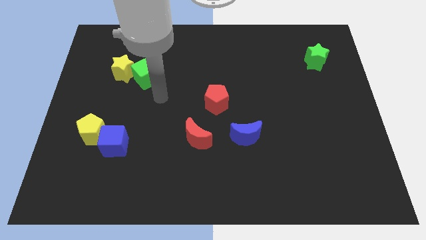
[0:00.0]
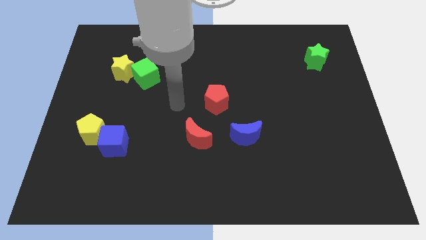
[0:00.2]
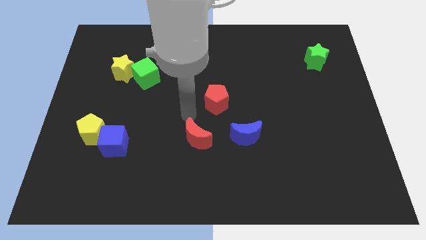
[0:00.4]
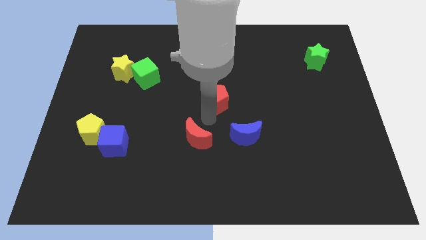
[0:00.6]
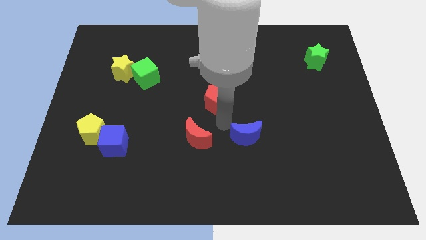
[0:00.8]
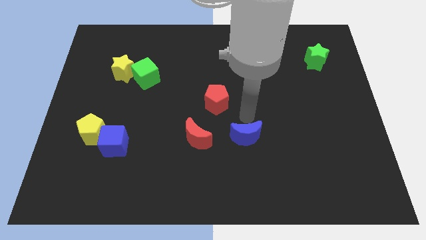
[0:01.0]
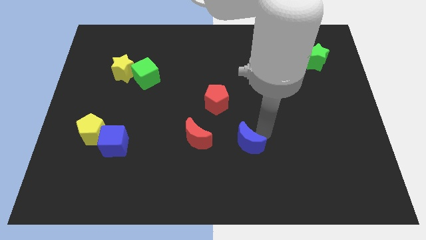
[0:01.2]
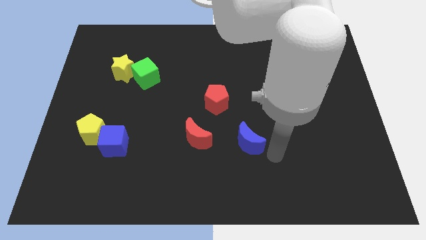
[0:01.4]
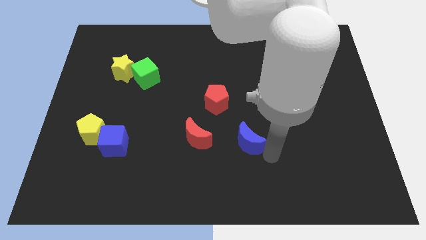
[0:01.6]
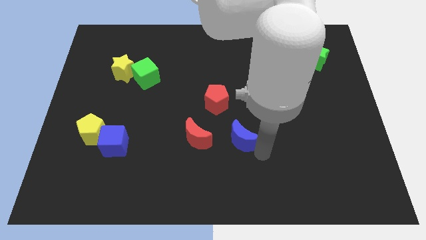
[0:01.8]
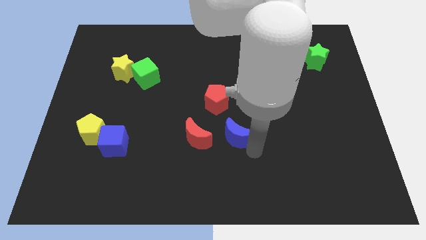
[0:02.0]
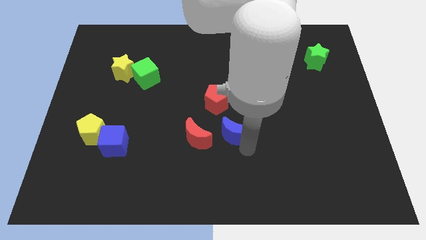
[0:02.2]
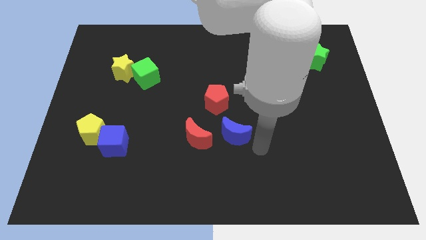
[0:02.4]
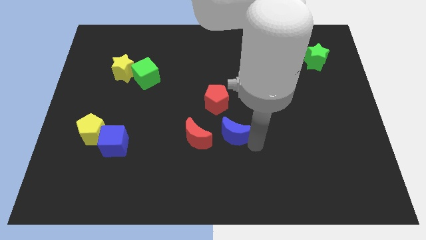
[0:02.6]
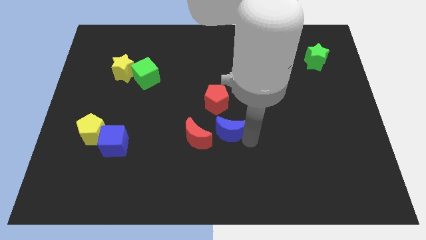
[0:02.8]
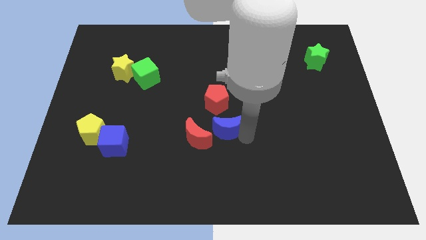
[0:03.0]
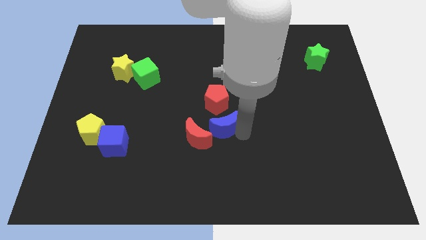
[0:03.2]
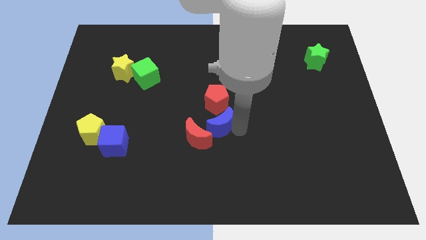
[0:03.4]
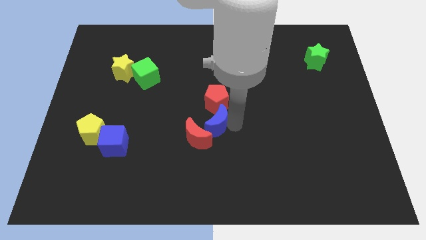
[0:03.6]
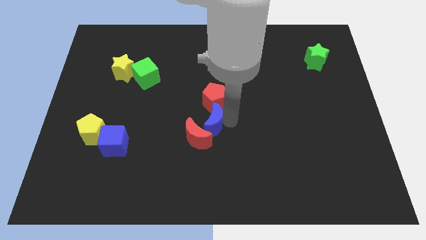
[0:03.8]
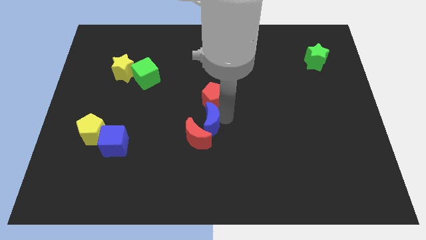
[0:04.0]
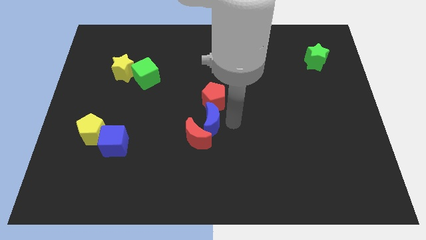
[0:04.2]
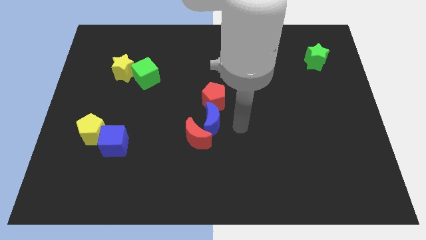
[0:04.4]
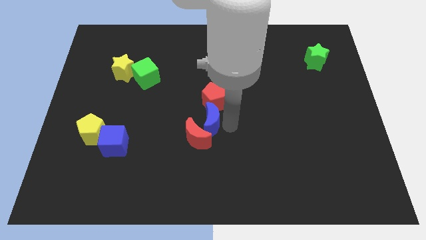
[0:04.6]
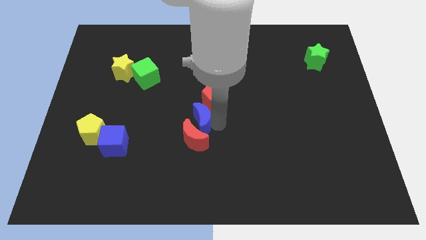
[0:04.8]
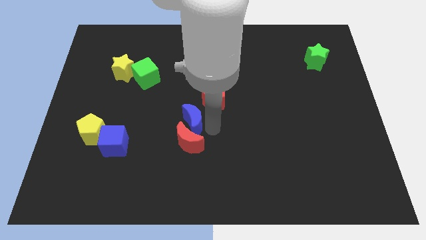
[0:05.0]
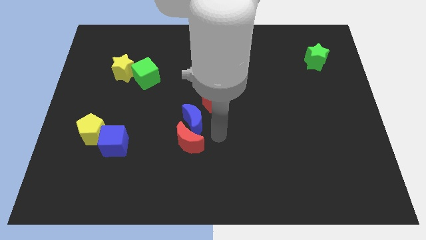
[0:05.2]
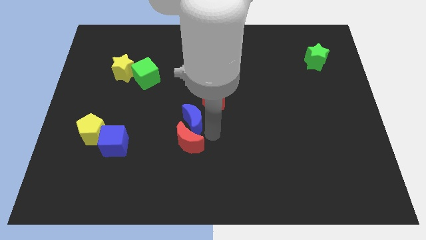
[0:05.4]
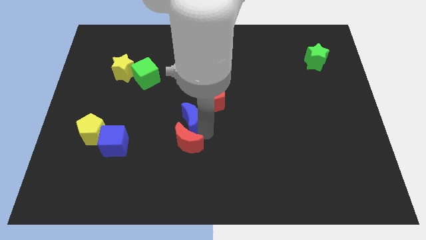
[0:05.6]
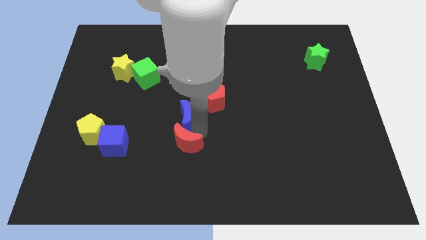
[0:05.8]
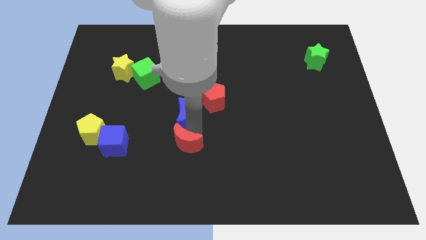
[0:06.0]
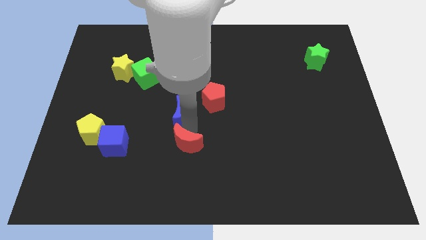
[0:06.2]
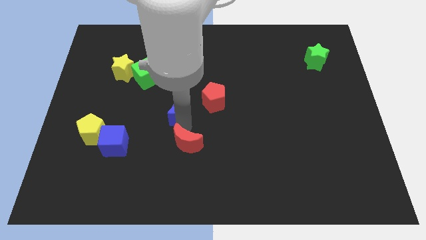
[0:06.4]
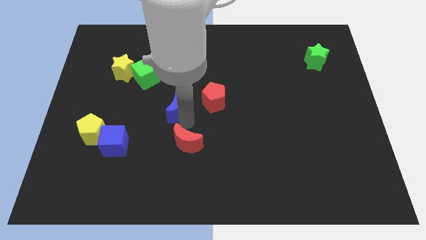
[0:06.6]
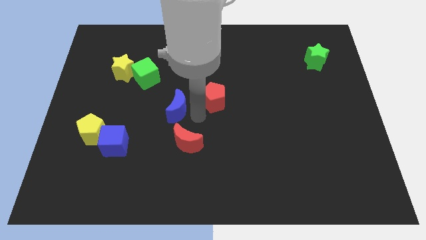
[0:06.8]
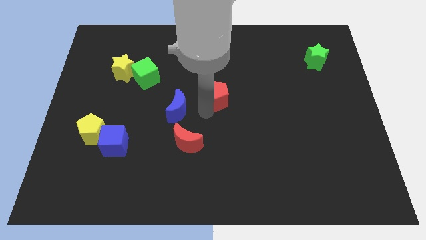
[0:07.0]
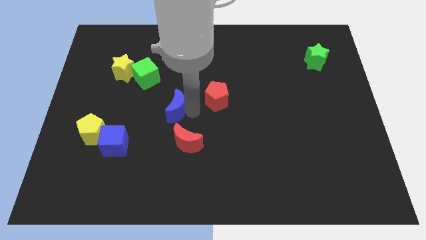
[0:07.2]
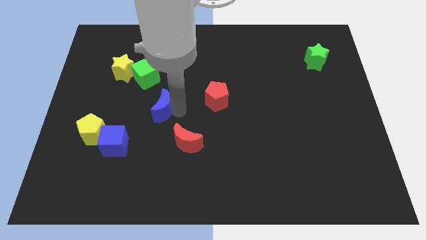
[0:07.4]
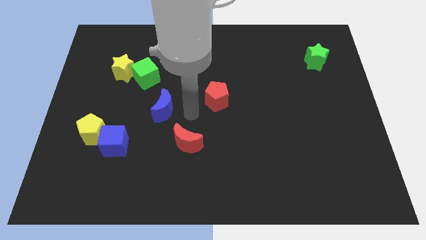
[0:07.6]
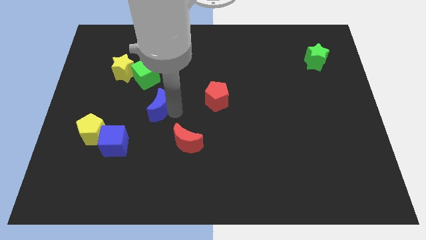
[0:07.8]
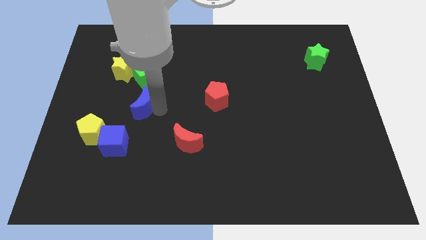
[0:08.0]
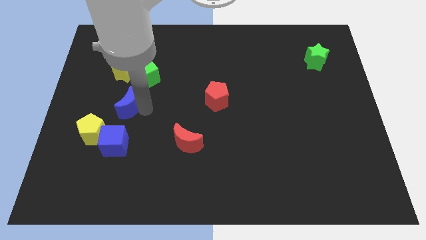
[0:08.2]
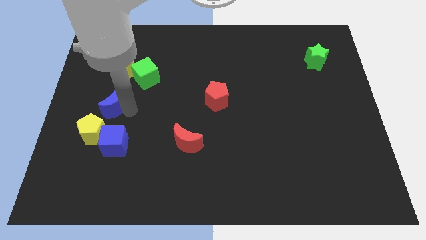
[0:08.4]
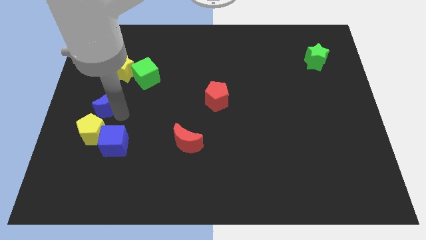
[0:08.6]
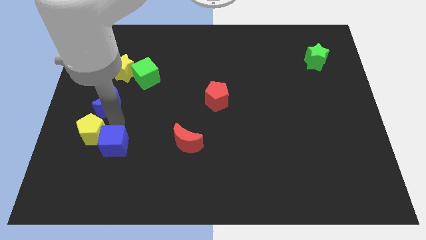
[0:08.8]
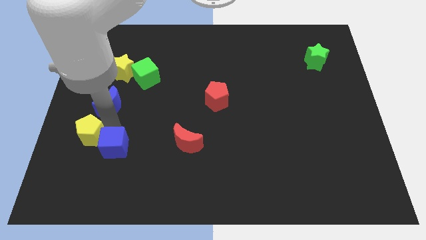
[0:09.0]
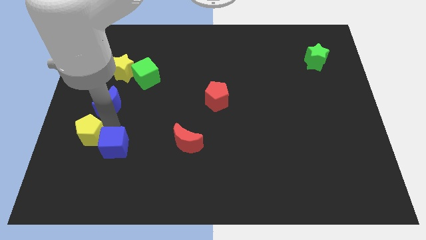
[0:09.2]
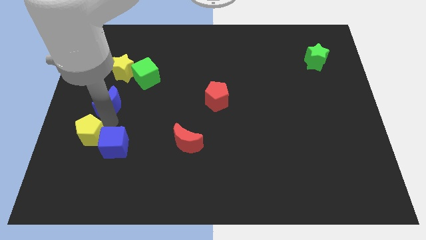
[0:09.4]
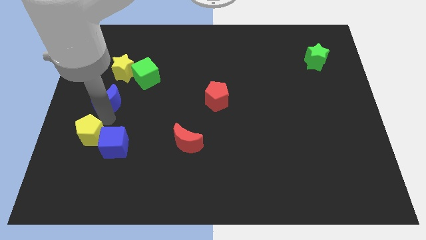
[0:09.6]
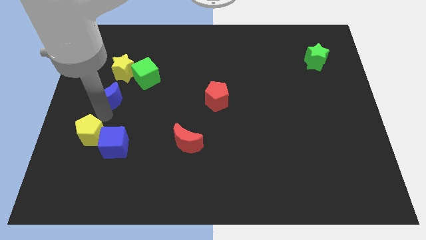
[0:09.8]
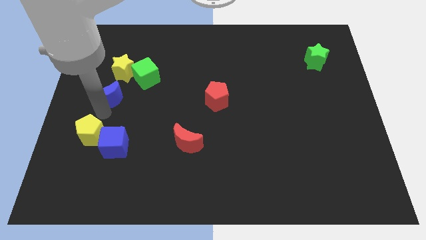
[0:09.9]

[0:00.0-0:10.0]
push the blue moon to the bottom left of the yellow star

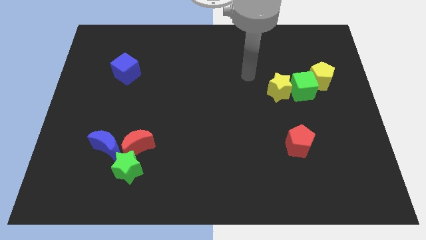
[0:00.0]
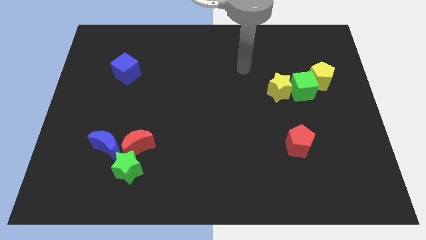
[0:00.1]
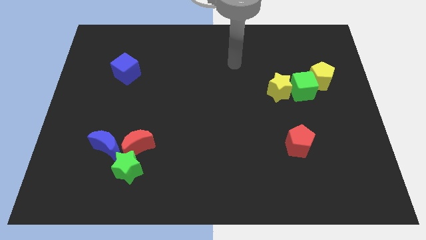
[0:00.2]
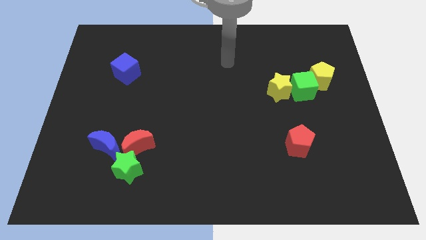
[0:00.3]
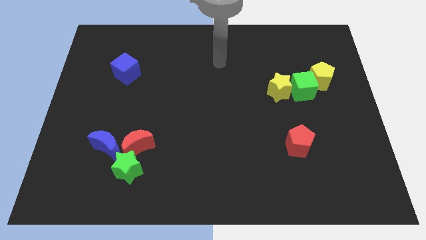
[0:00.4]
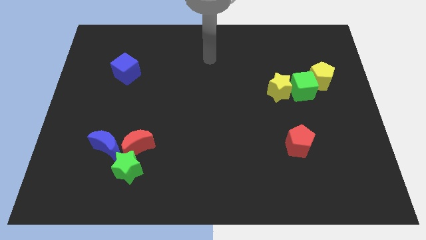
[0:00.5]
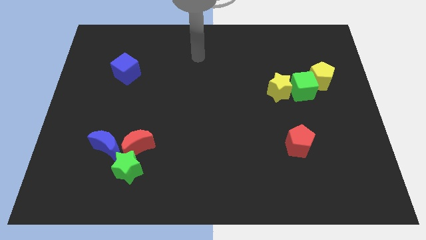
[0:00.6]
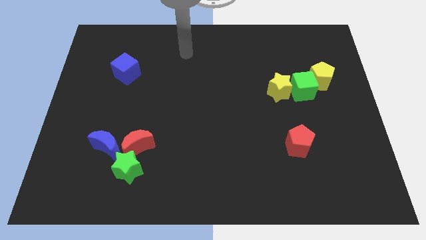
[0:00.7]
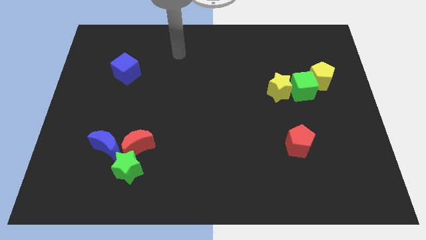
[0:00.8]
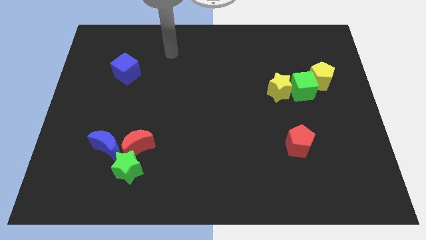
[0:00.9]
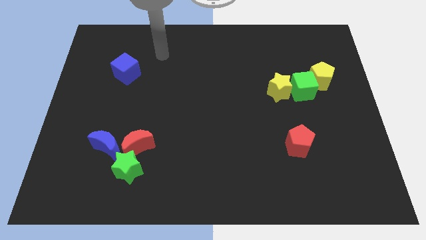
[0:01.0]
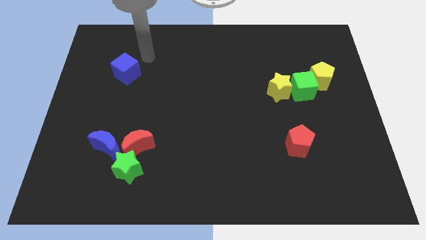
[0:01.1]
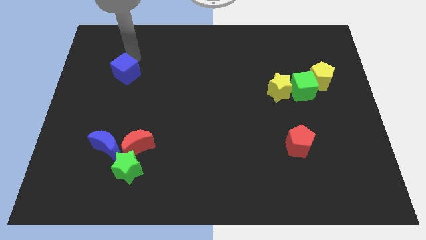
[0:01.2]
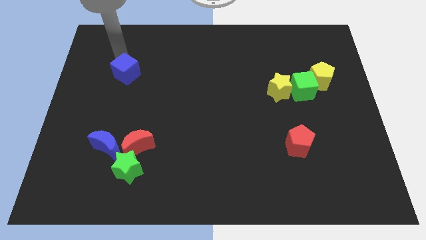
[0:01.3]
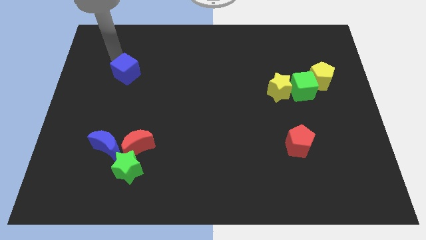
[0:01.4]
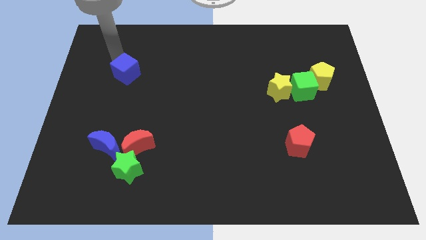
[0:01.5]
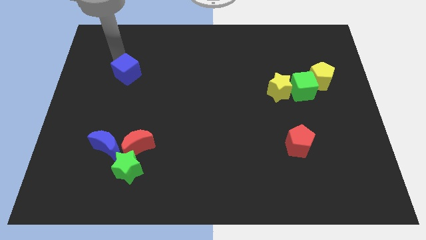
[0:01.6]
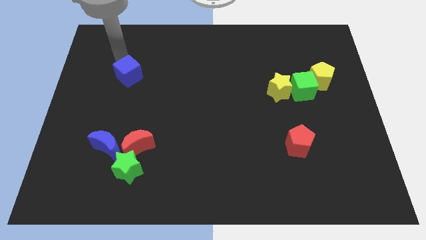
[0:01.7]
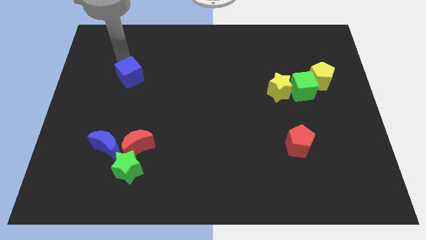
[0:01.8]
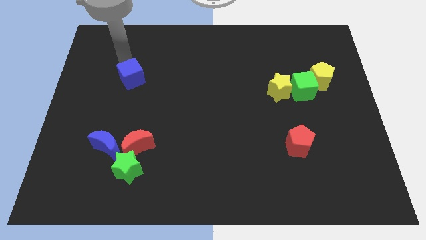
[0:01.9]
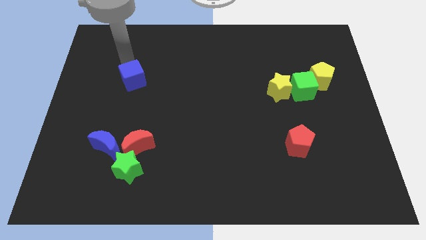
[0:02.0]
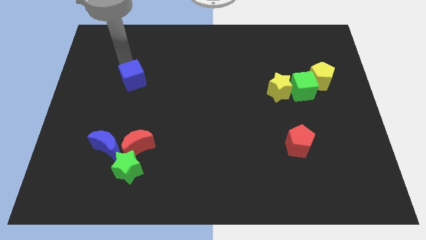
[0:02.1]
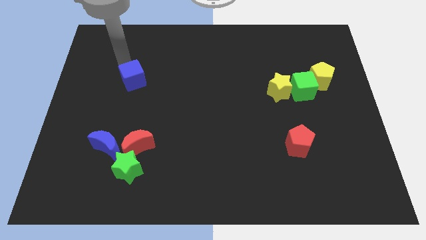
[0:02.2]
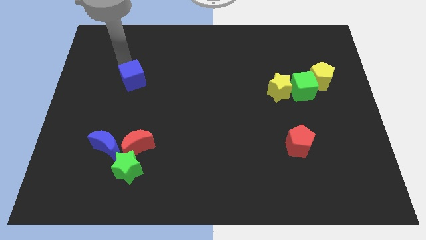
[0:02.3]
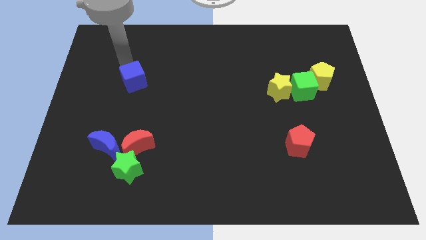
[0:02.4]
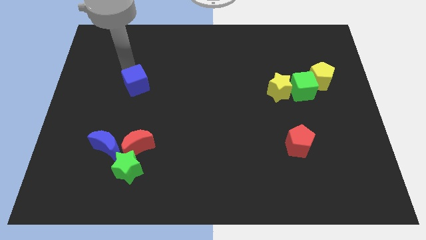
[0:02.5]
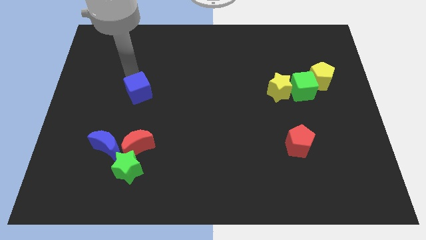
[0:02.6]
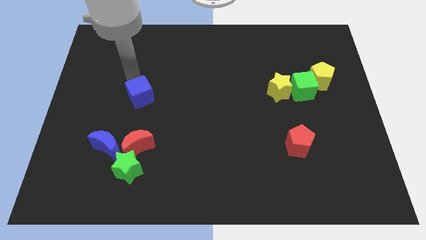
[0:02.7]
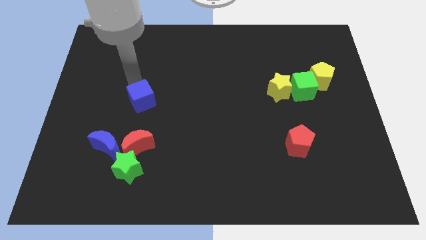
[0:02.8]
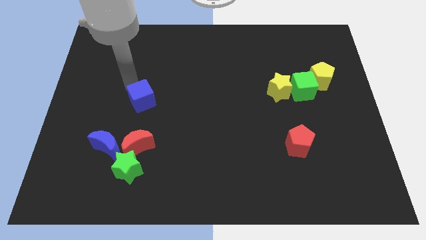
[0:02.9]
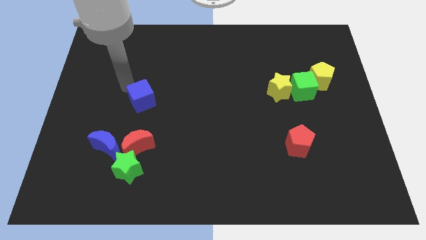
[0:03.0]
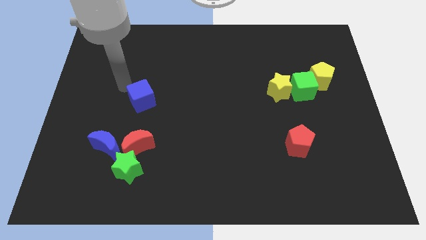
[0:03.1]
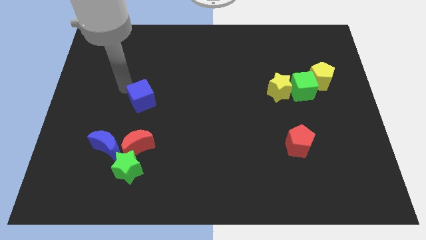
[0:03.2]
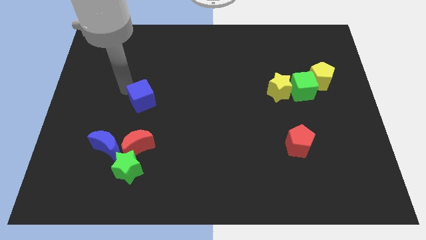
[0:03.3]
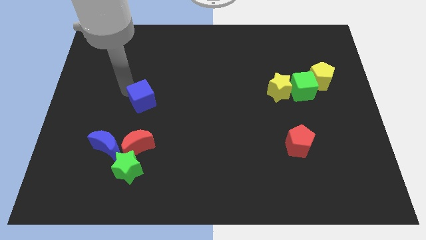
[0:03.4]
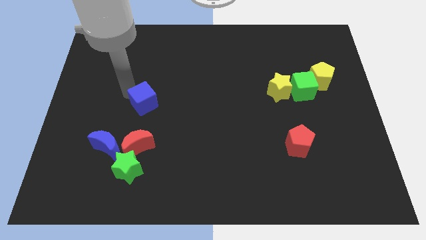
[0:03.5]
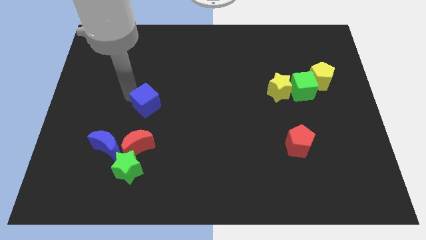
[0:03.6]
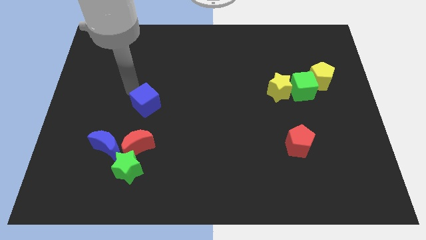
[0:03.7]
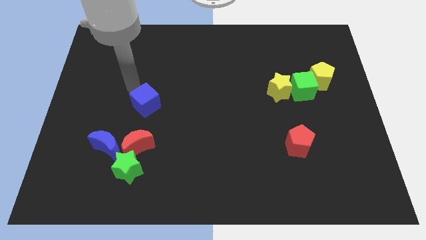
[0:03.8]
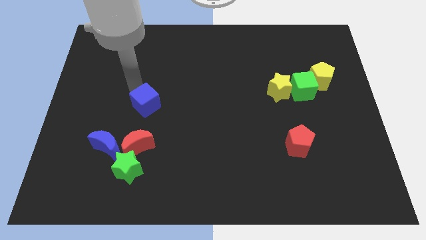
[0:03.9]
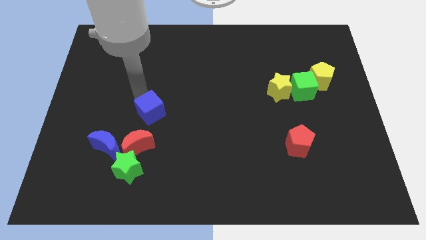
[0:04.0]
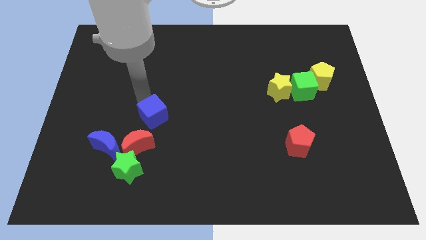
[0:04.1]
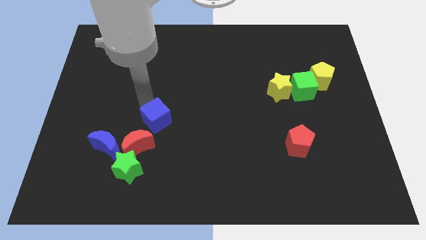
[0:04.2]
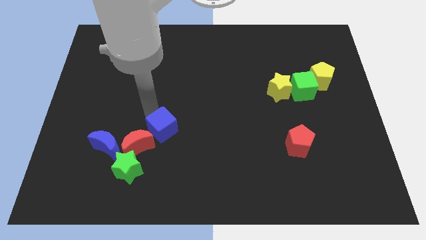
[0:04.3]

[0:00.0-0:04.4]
slide the blue cube right of the red moon
